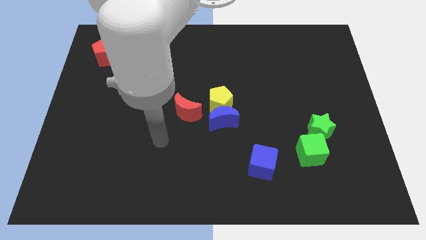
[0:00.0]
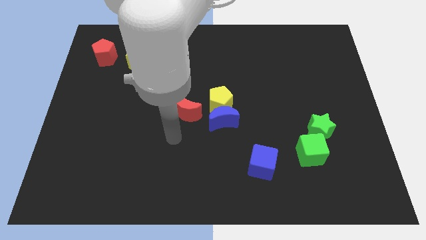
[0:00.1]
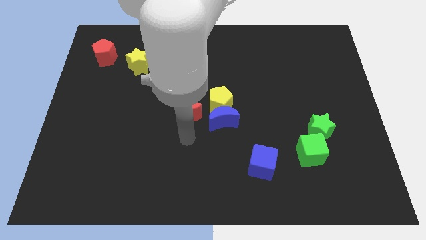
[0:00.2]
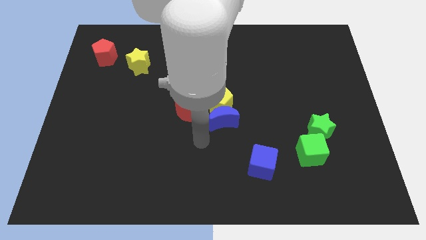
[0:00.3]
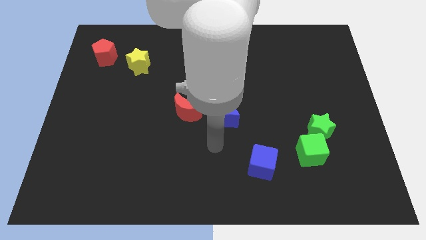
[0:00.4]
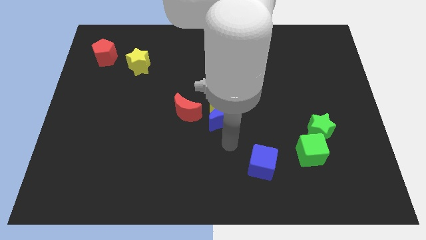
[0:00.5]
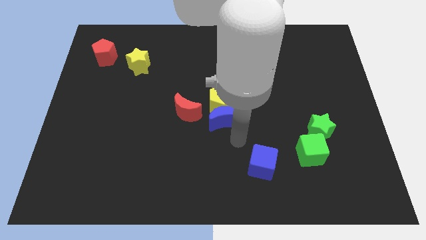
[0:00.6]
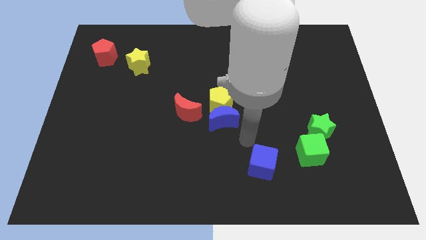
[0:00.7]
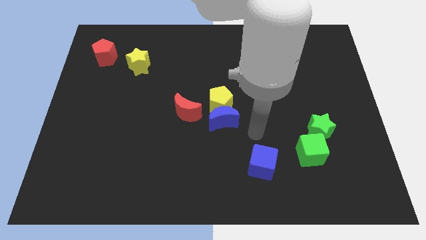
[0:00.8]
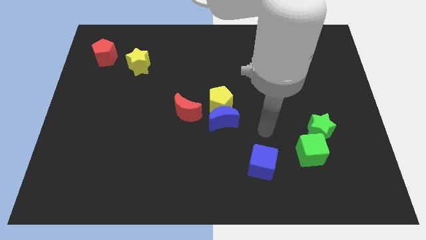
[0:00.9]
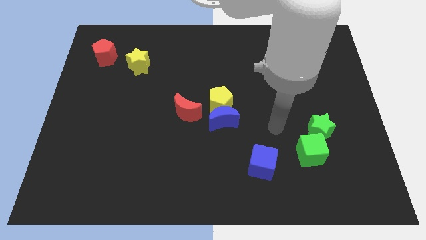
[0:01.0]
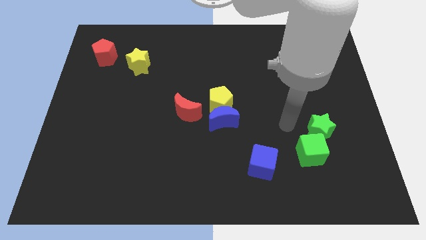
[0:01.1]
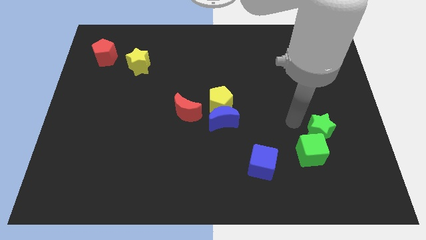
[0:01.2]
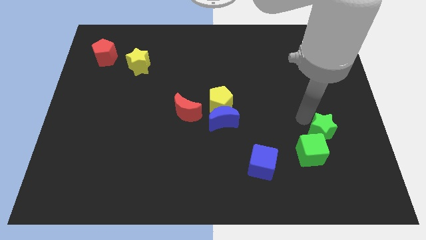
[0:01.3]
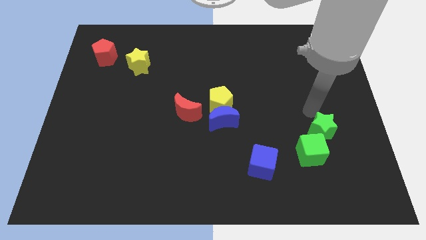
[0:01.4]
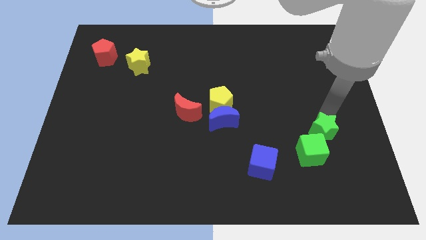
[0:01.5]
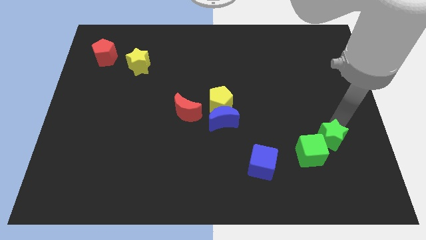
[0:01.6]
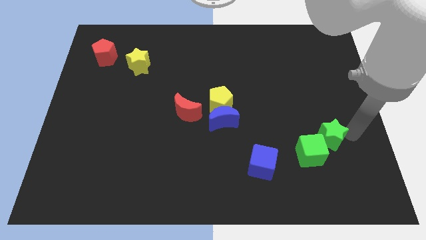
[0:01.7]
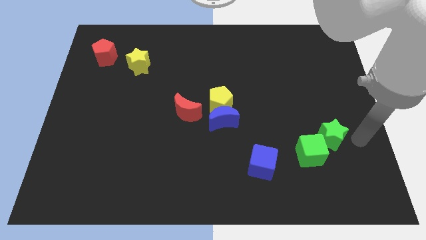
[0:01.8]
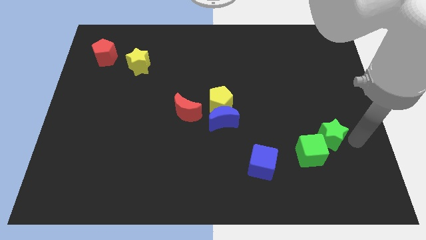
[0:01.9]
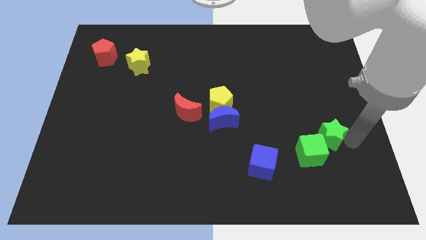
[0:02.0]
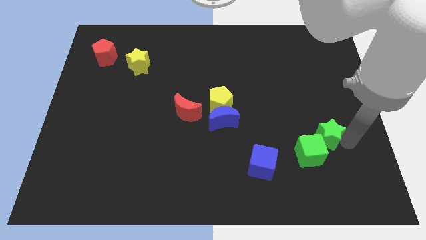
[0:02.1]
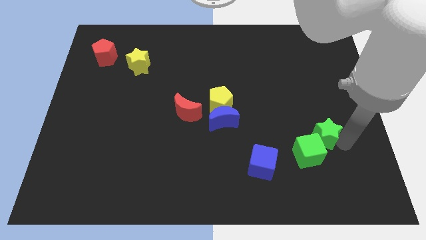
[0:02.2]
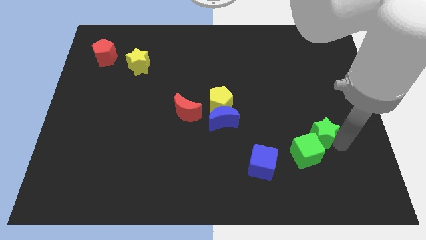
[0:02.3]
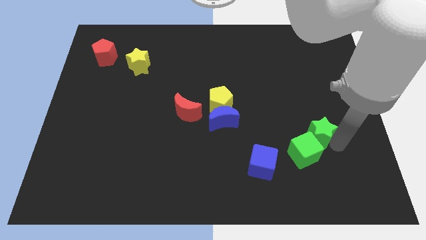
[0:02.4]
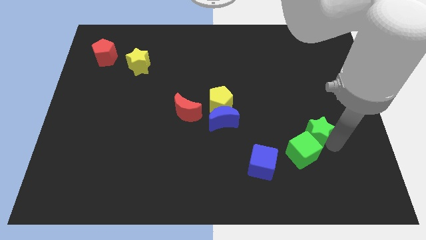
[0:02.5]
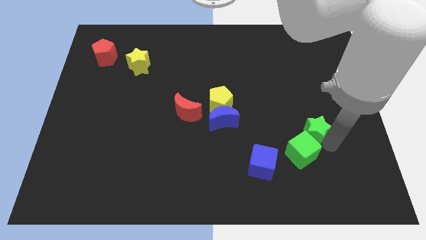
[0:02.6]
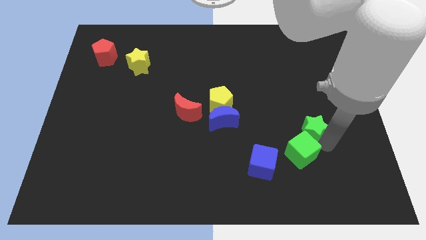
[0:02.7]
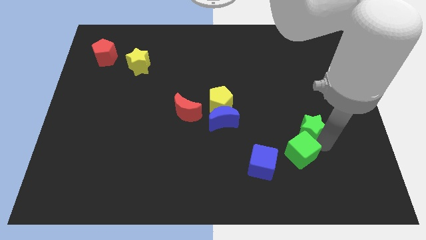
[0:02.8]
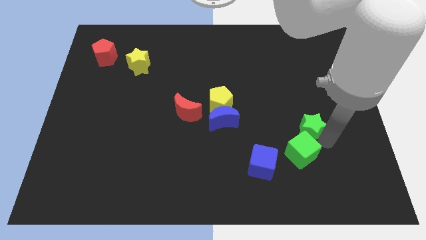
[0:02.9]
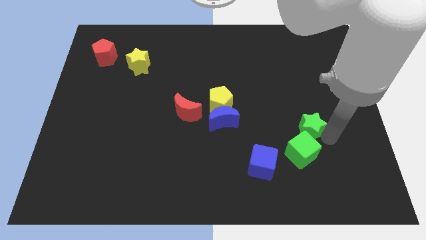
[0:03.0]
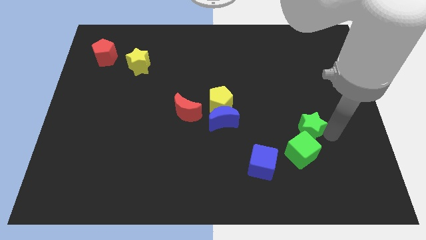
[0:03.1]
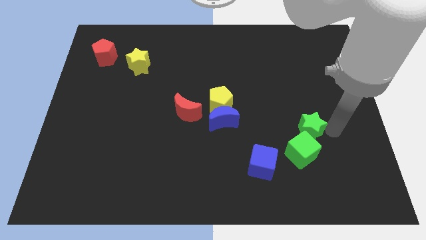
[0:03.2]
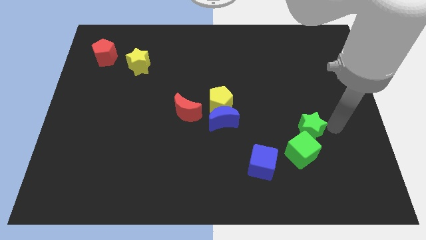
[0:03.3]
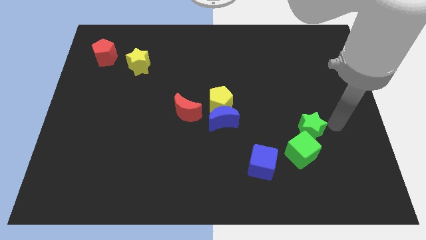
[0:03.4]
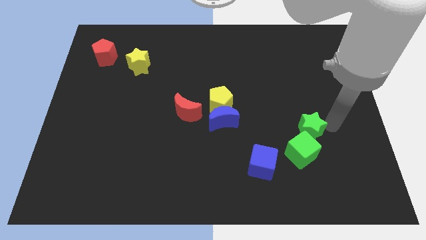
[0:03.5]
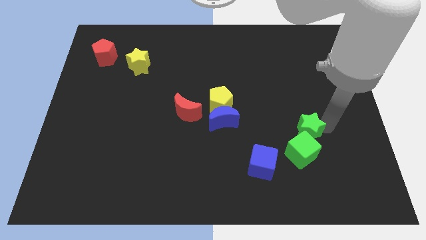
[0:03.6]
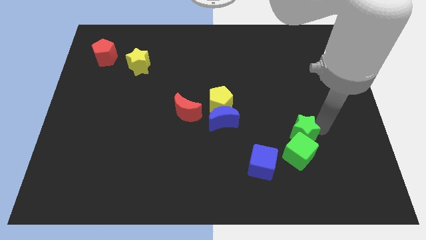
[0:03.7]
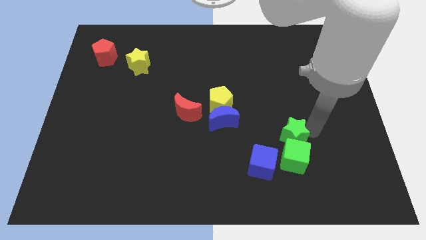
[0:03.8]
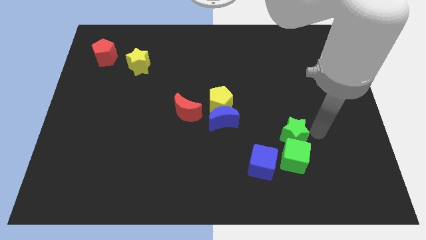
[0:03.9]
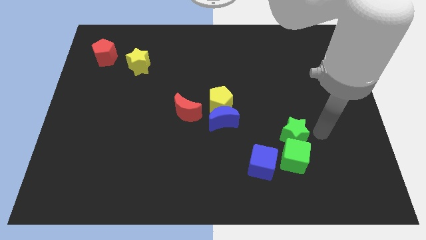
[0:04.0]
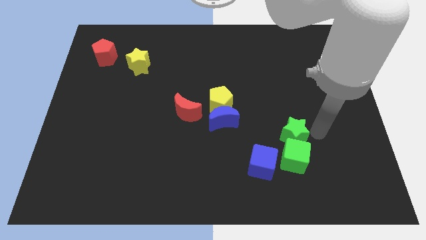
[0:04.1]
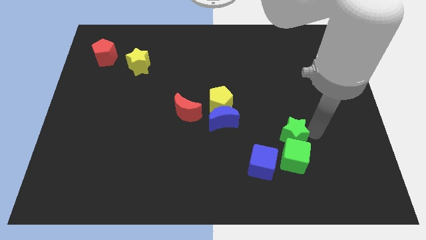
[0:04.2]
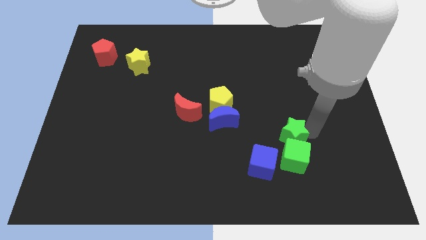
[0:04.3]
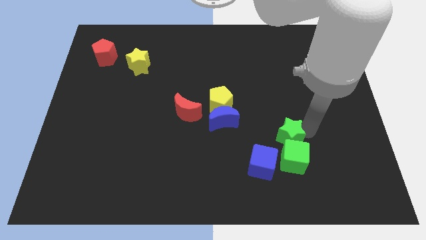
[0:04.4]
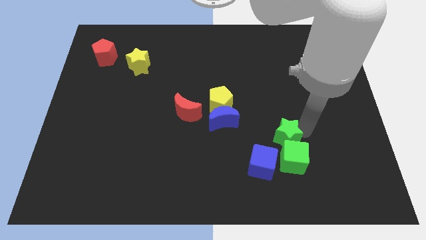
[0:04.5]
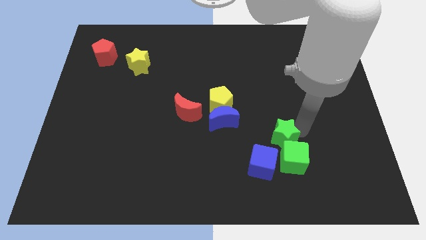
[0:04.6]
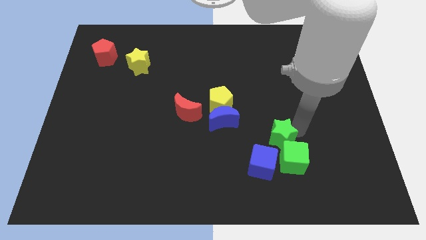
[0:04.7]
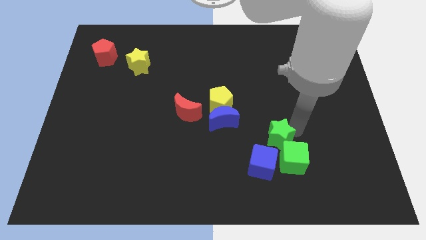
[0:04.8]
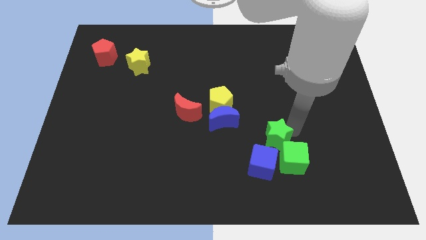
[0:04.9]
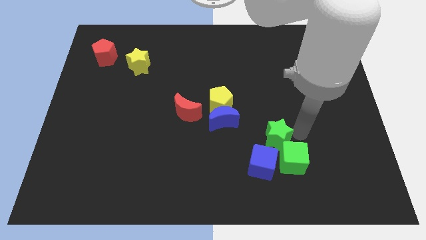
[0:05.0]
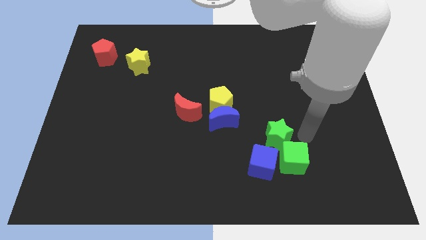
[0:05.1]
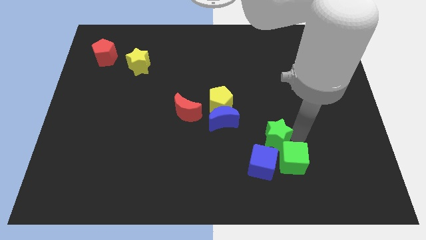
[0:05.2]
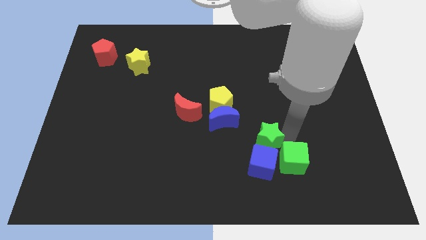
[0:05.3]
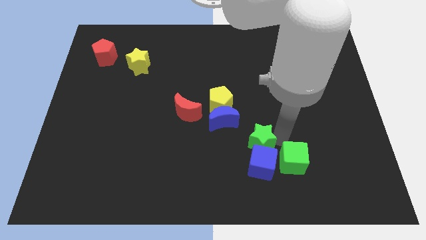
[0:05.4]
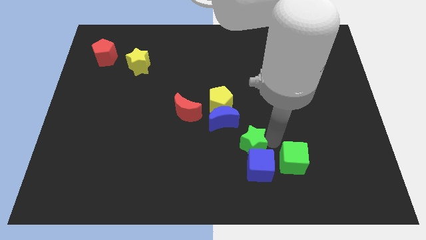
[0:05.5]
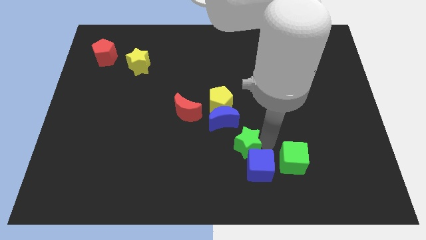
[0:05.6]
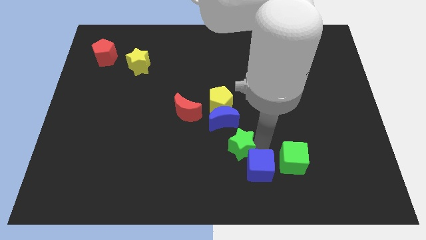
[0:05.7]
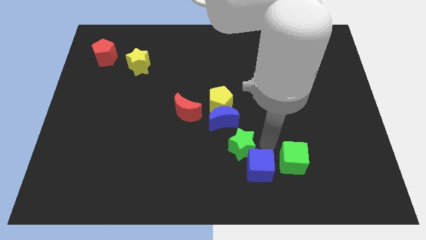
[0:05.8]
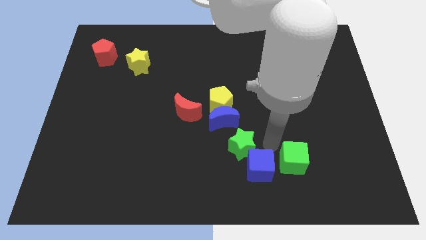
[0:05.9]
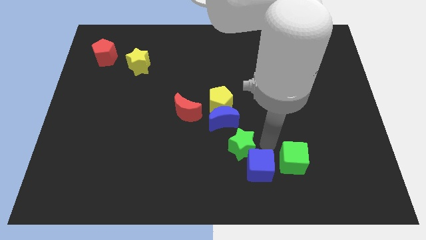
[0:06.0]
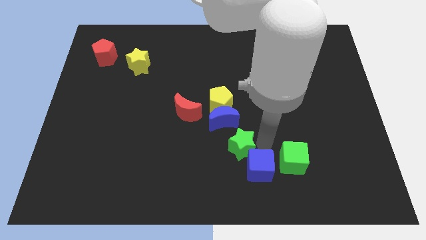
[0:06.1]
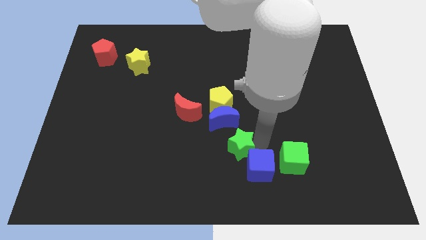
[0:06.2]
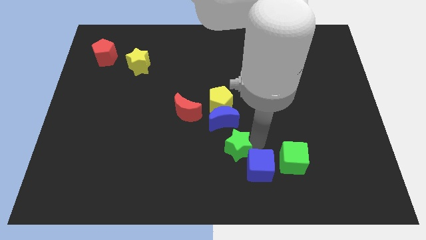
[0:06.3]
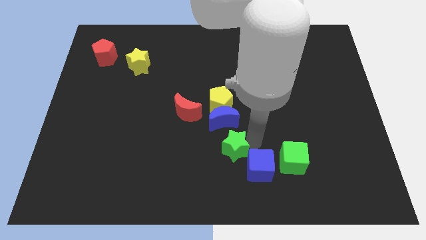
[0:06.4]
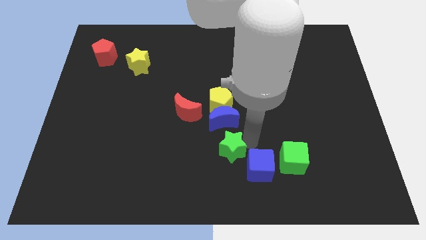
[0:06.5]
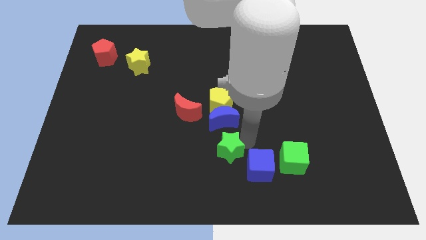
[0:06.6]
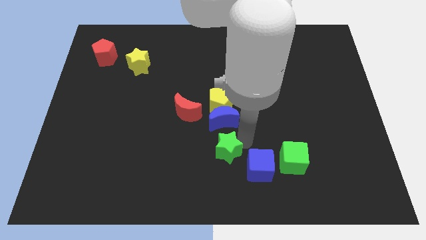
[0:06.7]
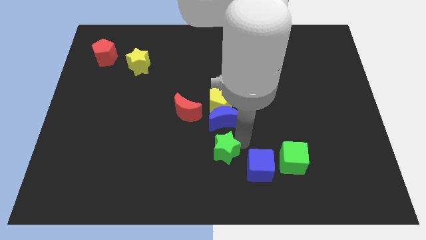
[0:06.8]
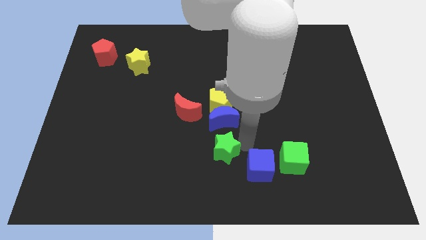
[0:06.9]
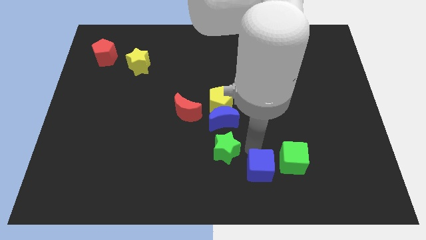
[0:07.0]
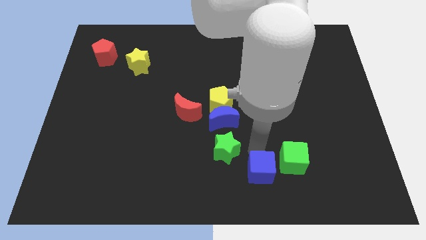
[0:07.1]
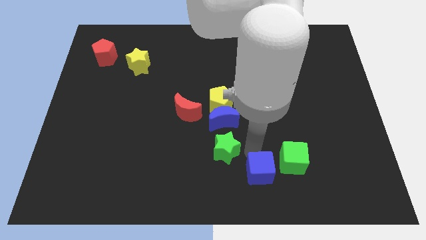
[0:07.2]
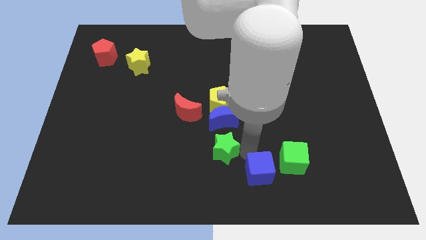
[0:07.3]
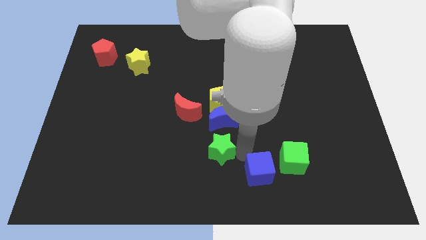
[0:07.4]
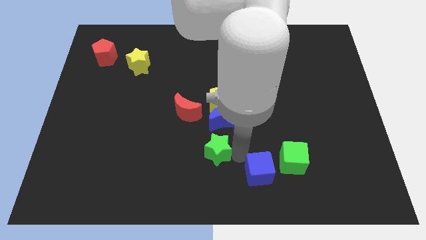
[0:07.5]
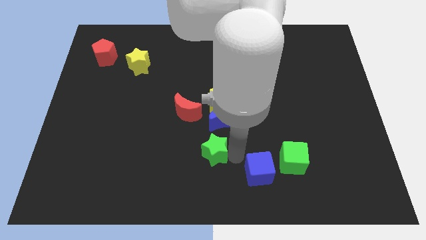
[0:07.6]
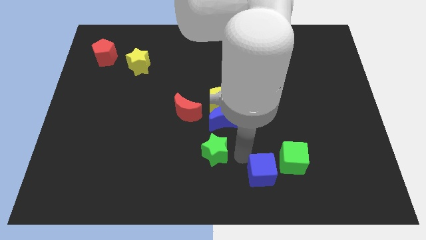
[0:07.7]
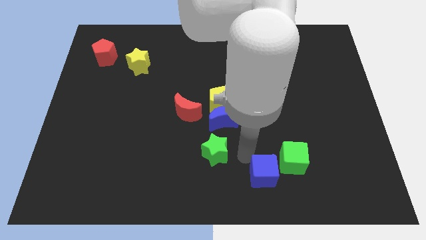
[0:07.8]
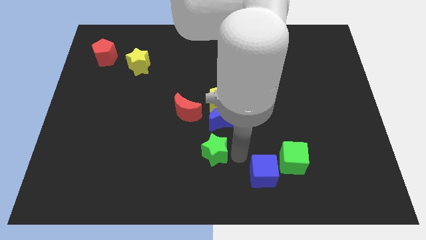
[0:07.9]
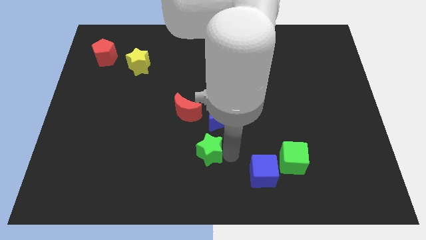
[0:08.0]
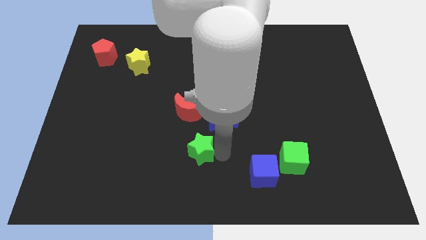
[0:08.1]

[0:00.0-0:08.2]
slide the green star to the bottom of the red moon
